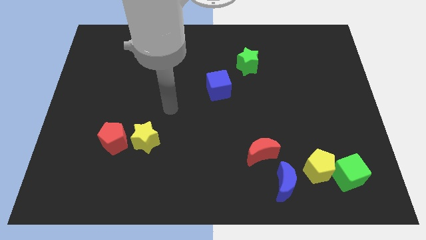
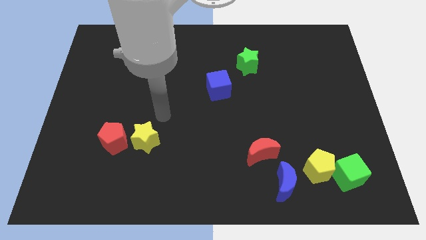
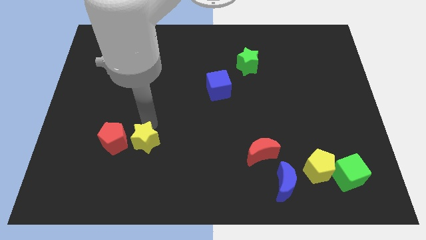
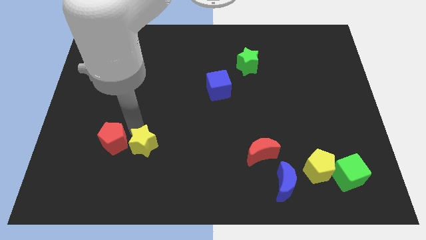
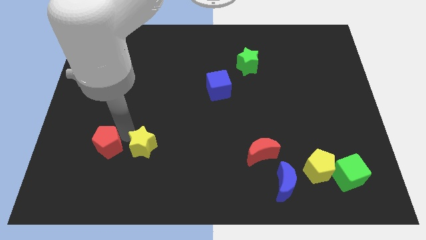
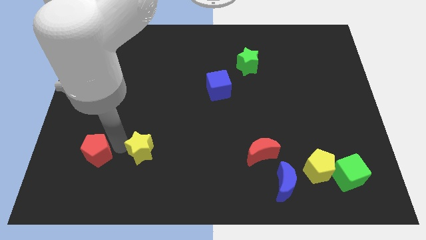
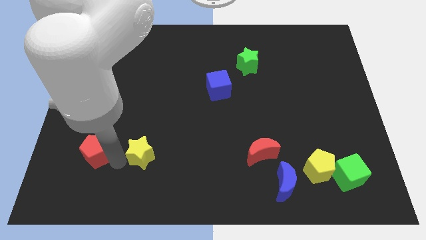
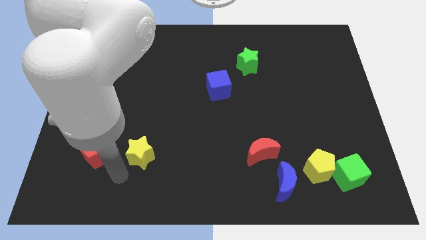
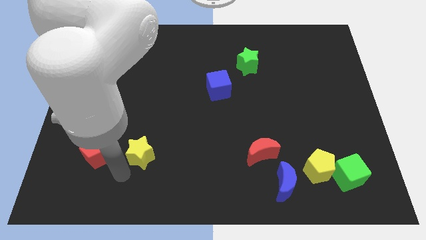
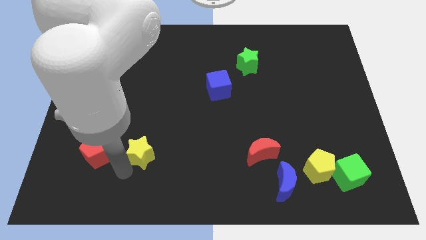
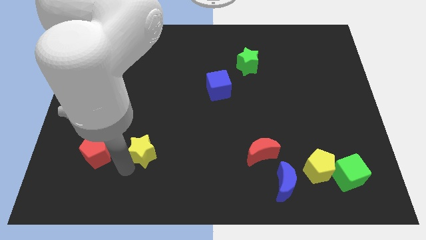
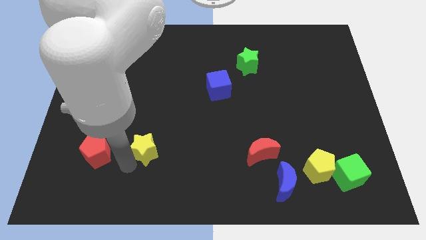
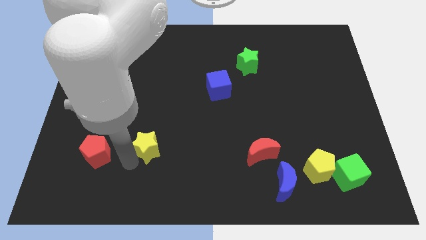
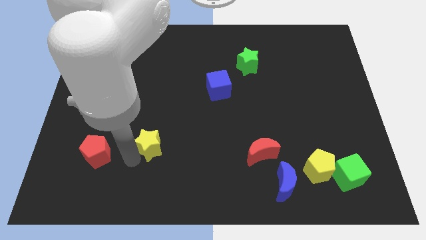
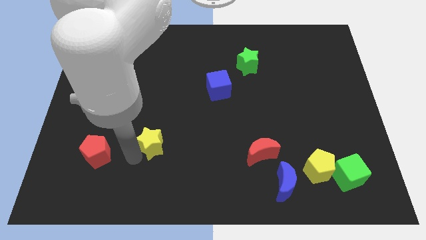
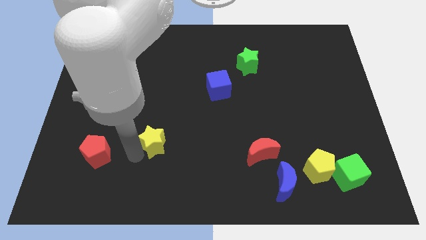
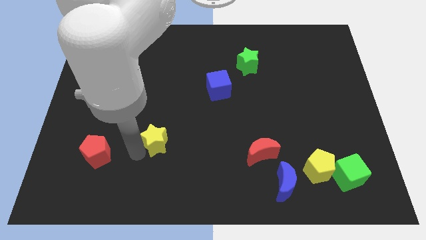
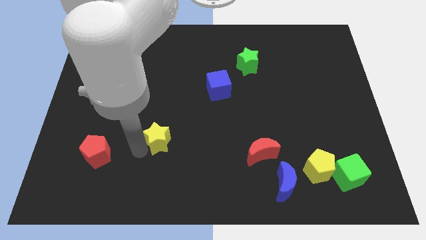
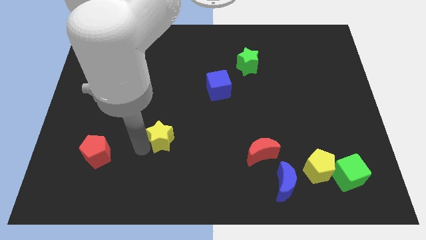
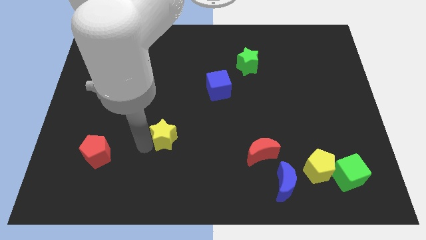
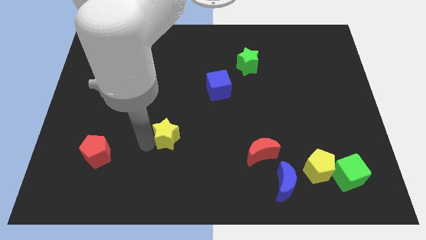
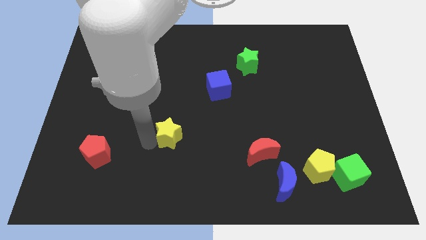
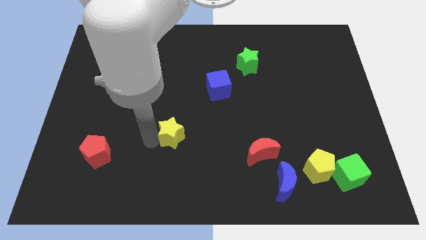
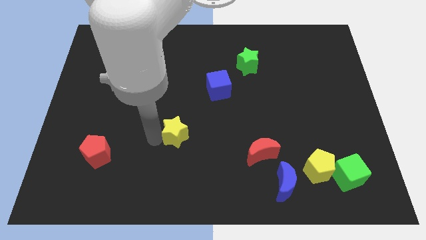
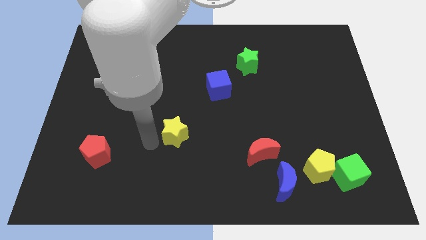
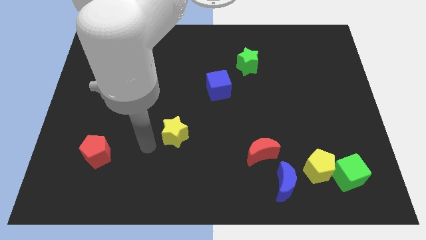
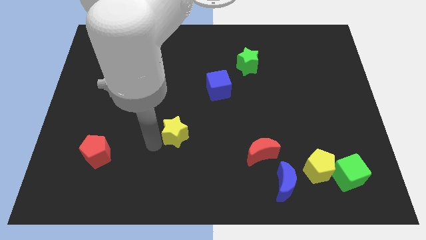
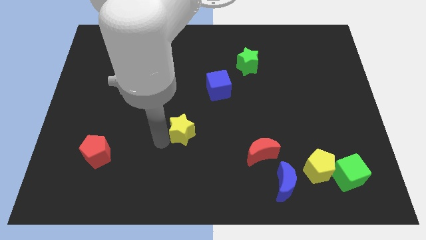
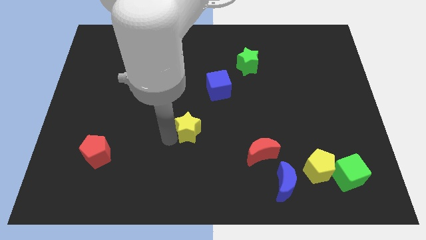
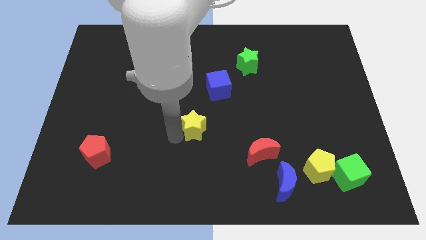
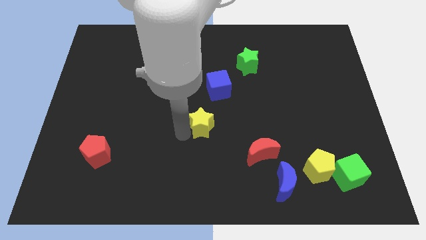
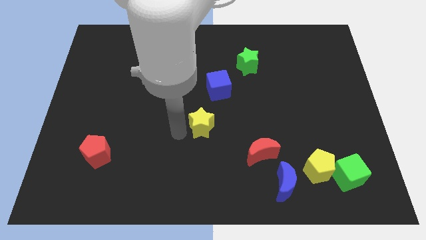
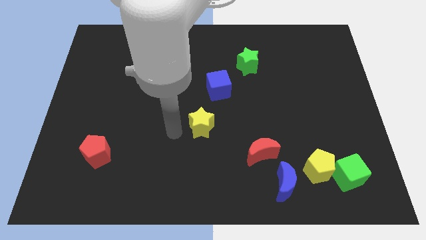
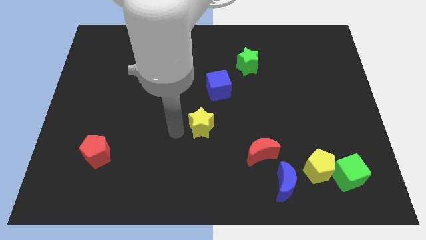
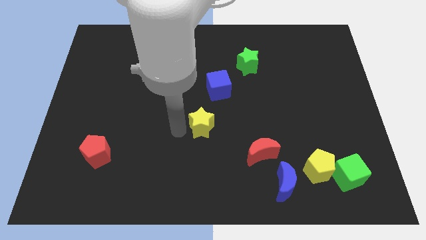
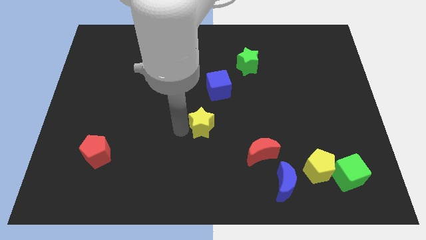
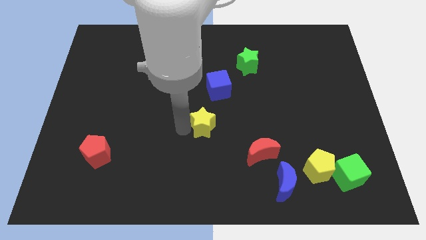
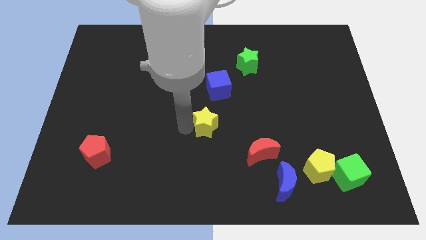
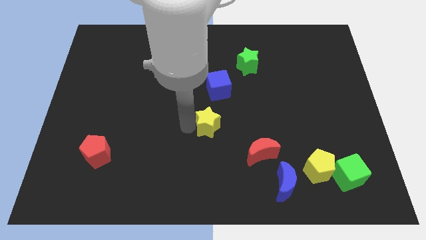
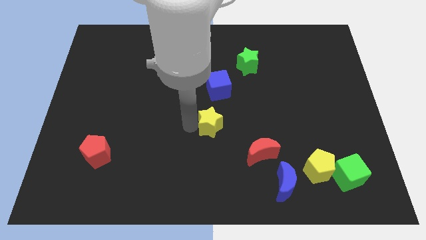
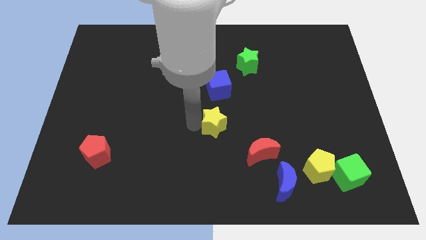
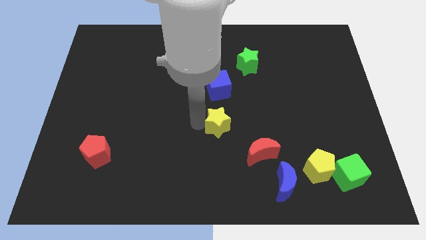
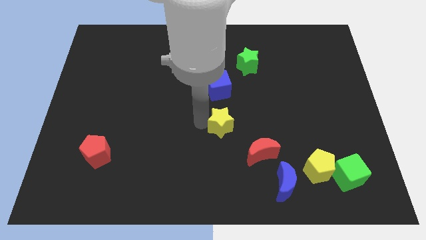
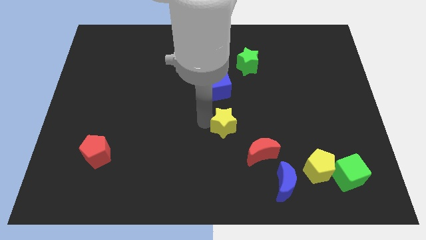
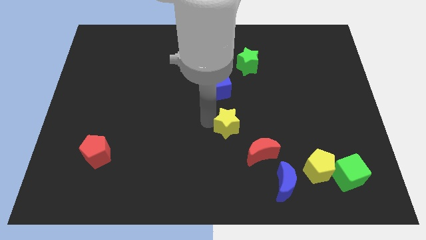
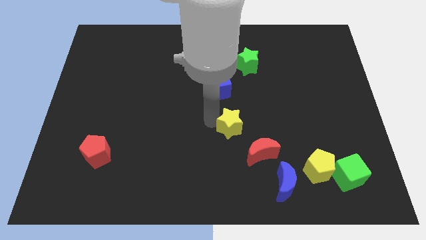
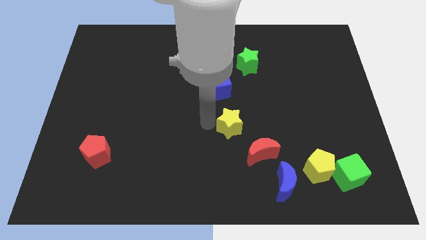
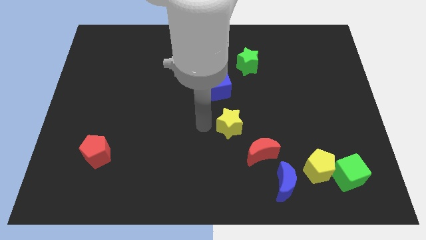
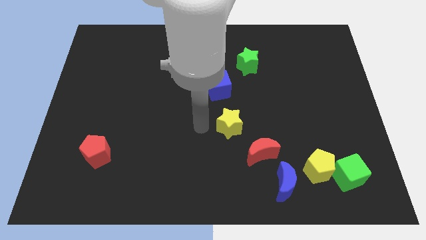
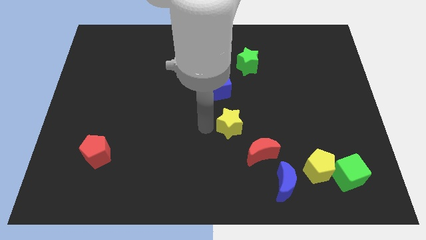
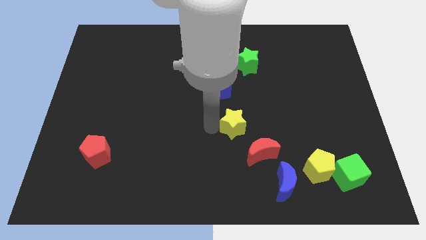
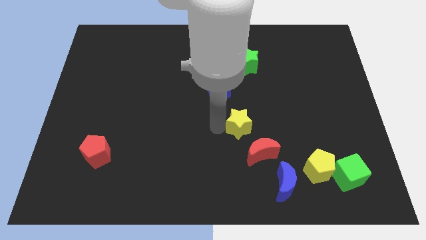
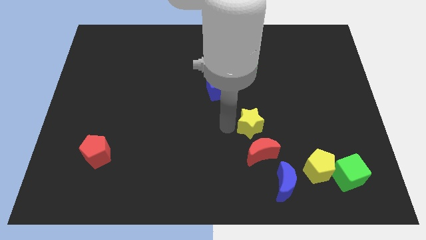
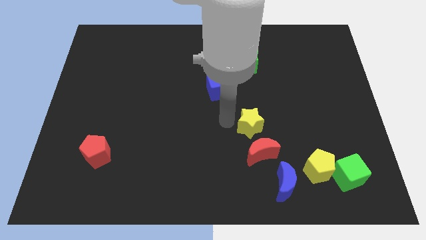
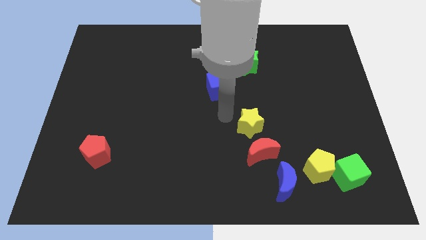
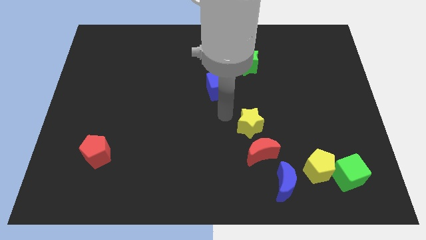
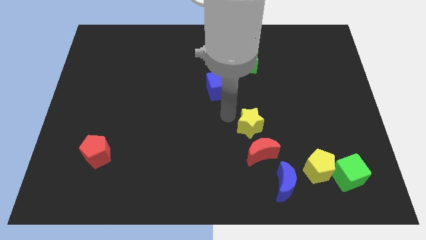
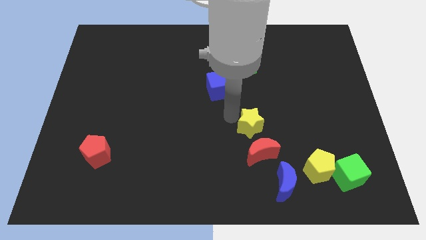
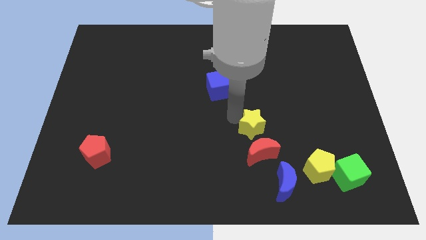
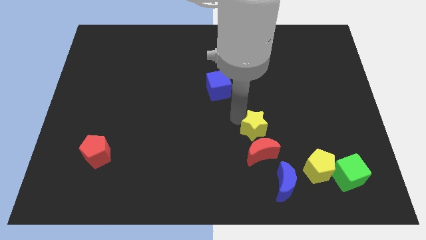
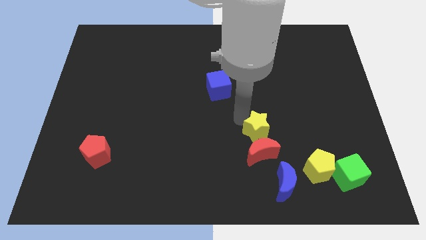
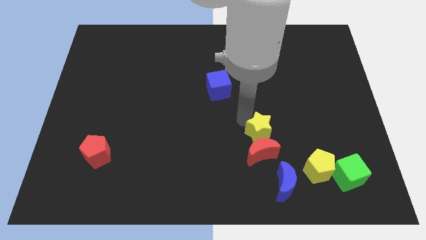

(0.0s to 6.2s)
put the yellow star above the blue moon
